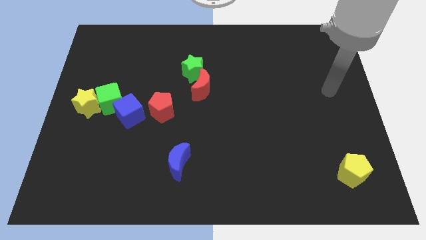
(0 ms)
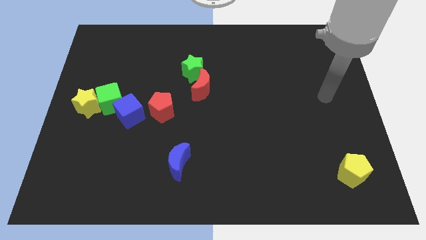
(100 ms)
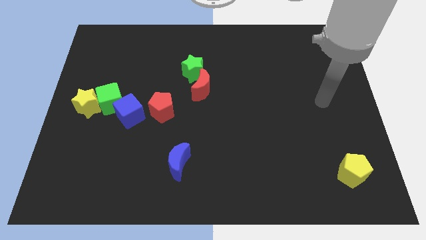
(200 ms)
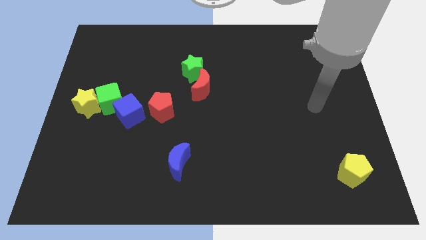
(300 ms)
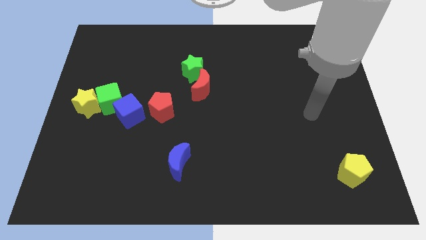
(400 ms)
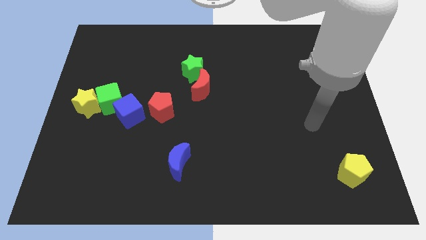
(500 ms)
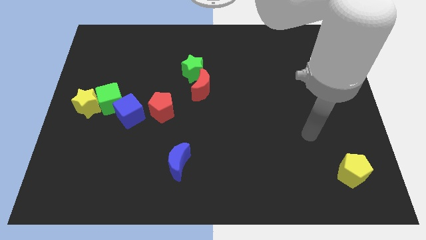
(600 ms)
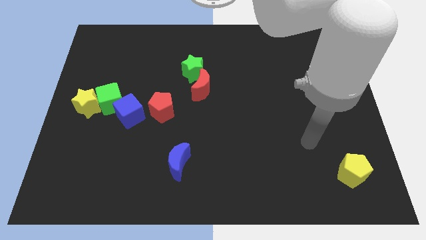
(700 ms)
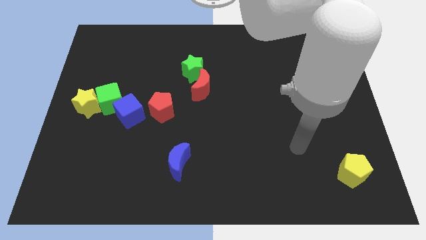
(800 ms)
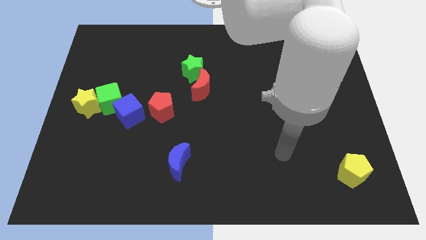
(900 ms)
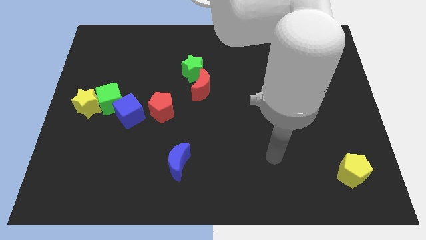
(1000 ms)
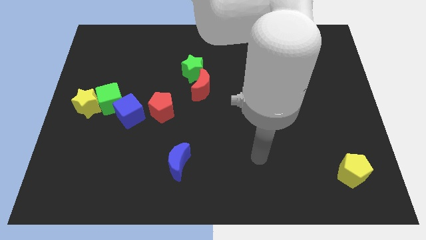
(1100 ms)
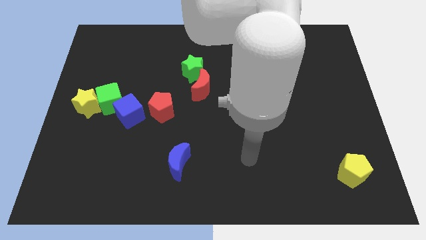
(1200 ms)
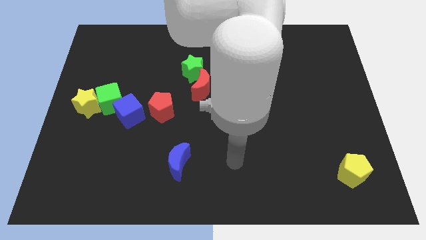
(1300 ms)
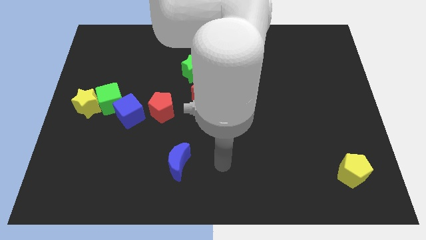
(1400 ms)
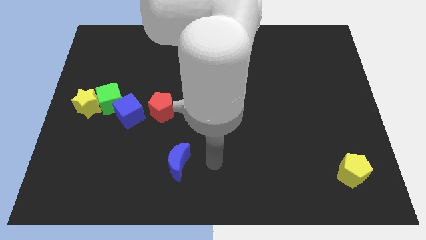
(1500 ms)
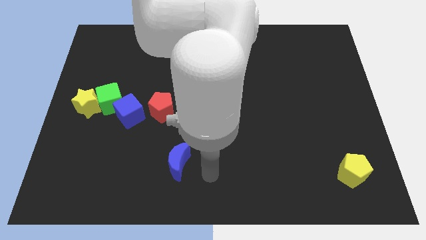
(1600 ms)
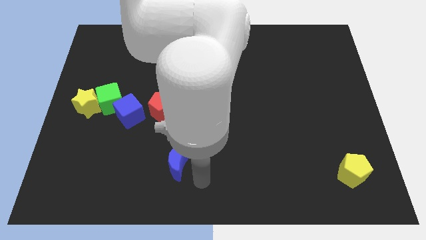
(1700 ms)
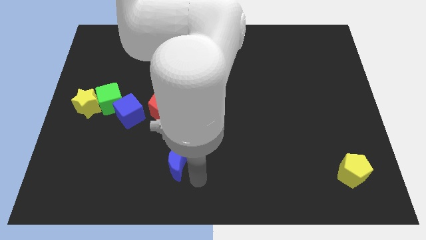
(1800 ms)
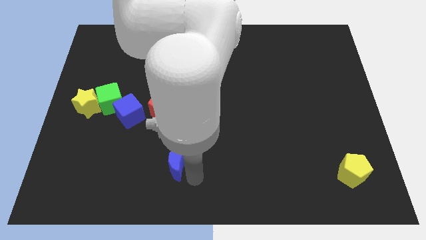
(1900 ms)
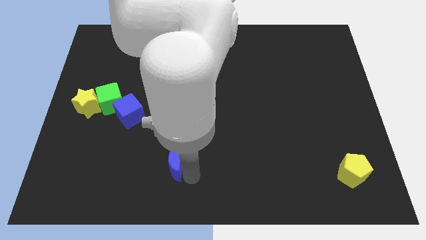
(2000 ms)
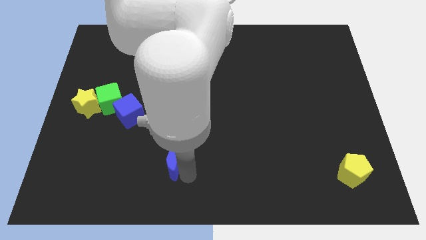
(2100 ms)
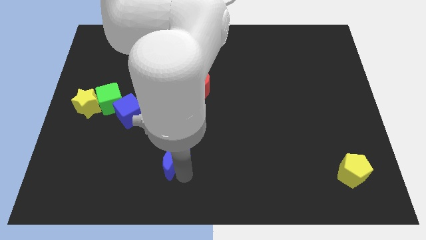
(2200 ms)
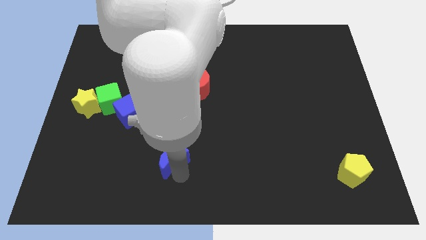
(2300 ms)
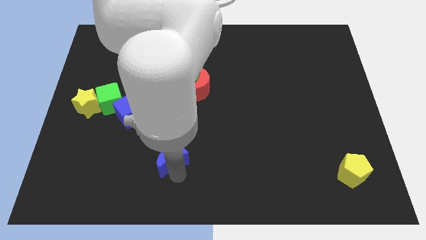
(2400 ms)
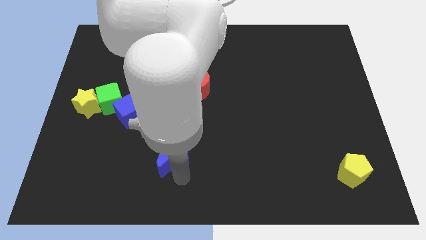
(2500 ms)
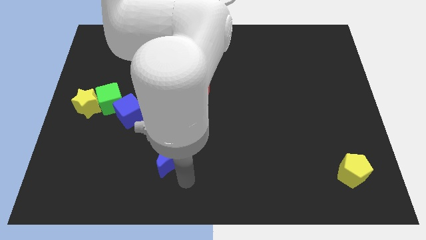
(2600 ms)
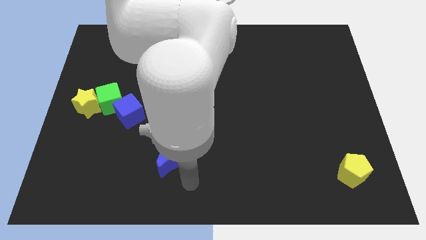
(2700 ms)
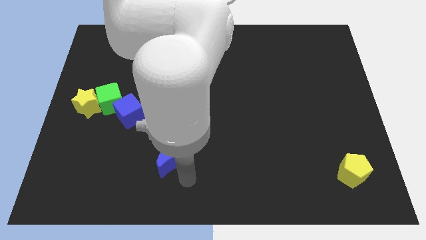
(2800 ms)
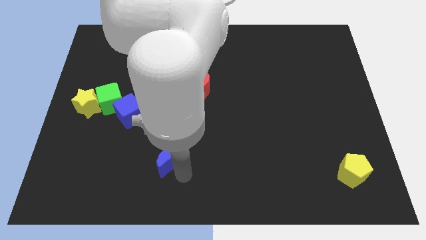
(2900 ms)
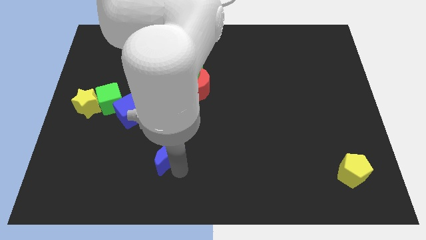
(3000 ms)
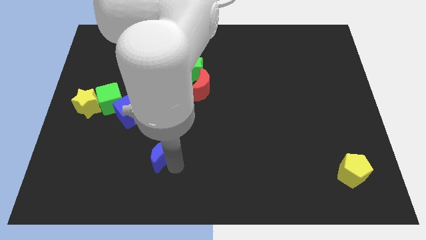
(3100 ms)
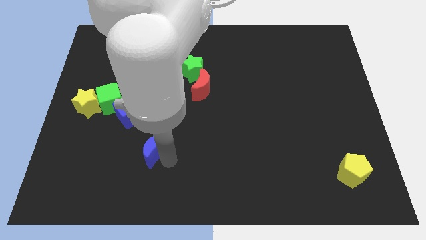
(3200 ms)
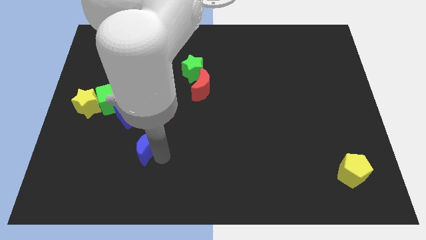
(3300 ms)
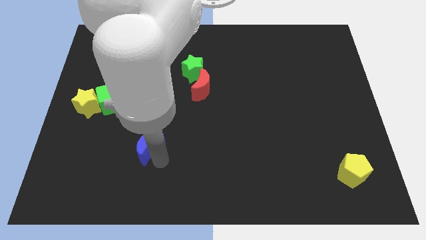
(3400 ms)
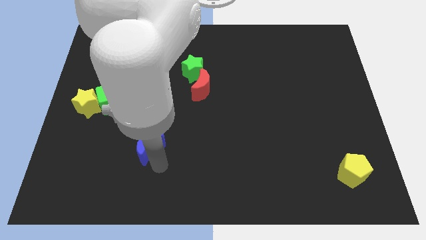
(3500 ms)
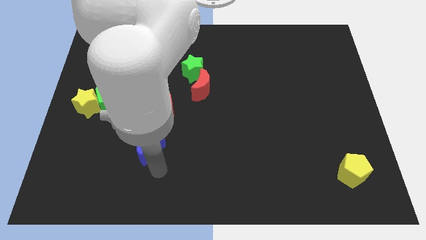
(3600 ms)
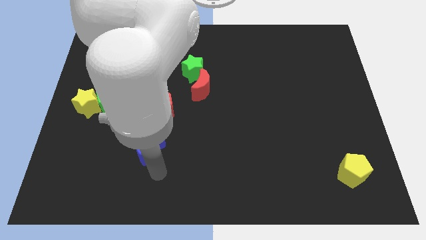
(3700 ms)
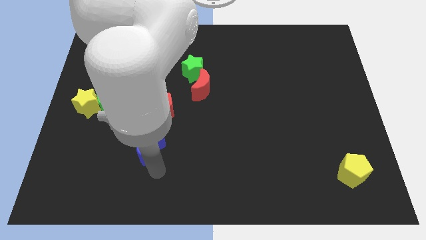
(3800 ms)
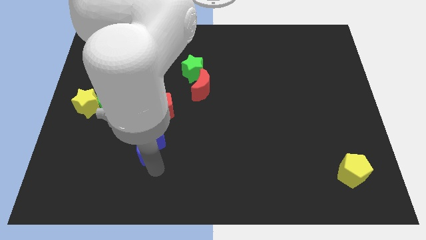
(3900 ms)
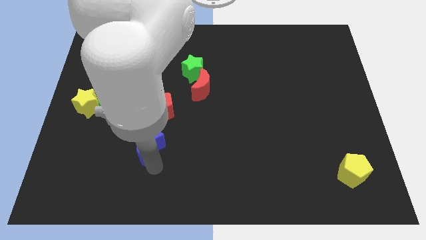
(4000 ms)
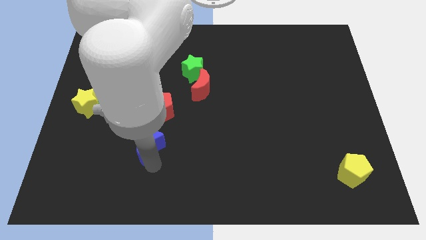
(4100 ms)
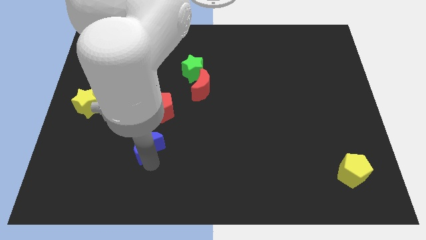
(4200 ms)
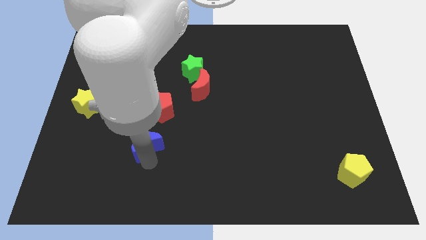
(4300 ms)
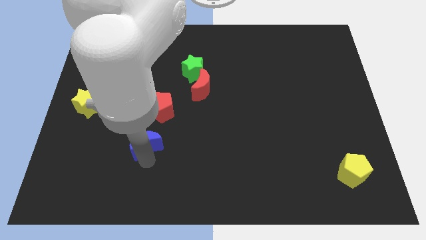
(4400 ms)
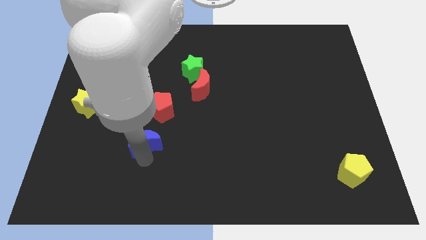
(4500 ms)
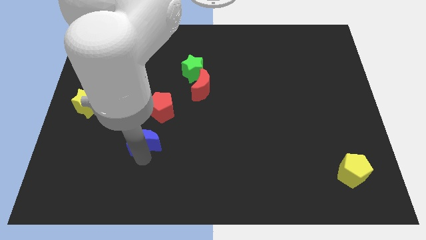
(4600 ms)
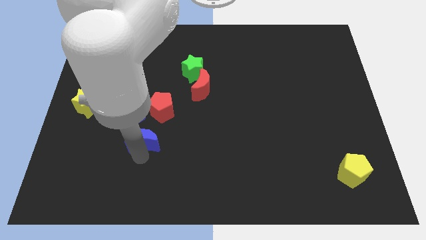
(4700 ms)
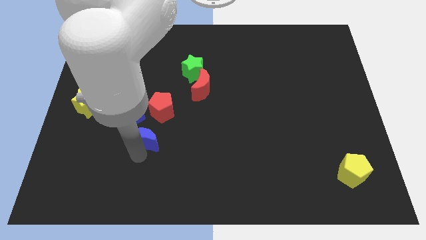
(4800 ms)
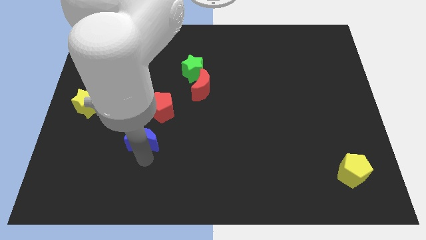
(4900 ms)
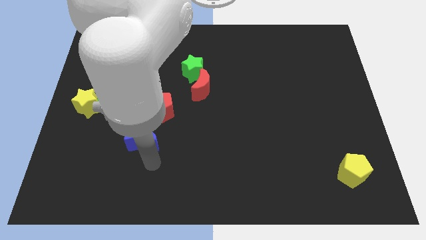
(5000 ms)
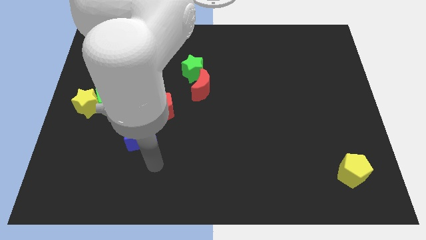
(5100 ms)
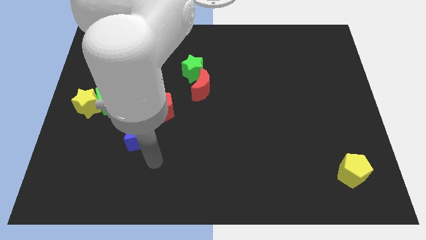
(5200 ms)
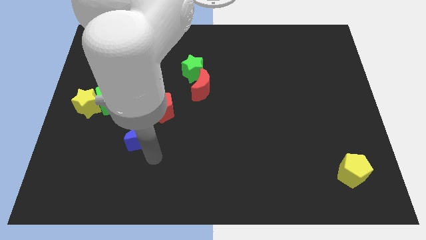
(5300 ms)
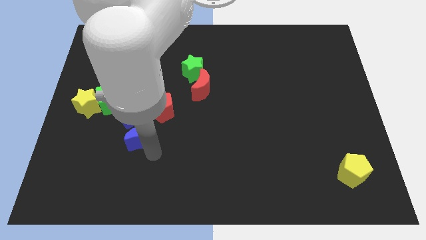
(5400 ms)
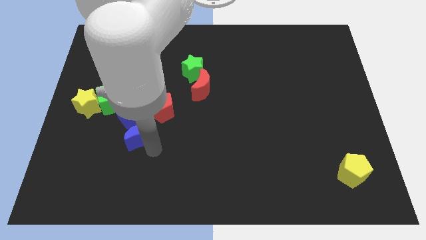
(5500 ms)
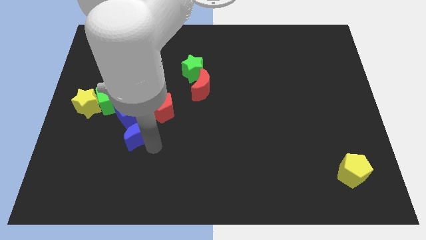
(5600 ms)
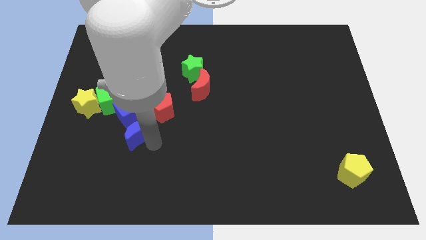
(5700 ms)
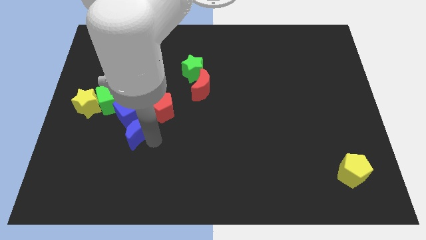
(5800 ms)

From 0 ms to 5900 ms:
slide the blue moon towards the blue cube

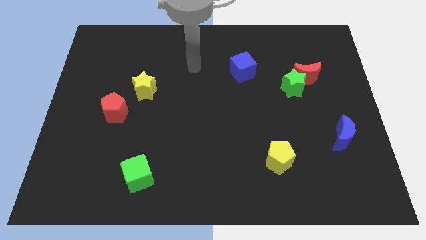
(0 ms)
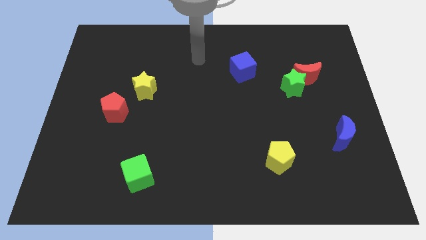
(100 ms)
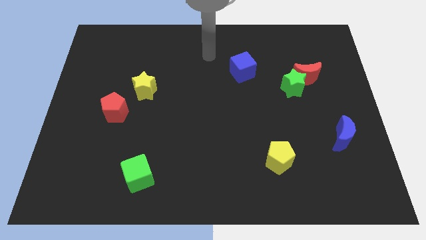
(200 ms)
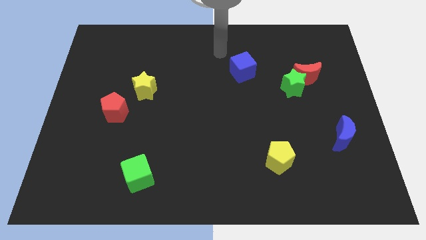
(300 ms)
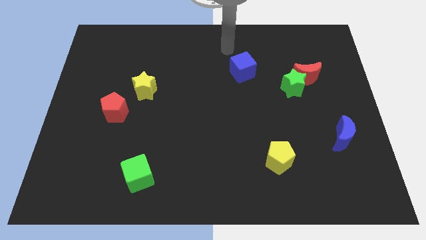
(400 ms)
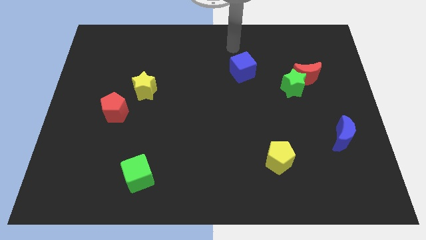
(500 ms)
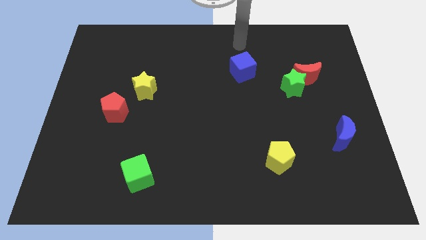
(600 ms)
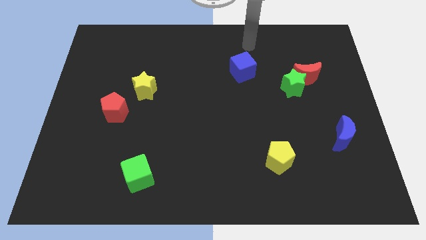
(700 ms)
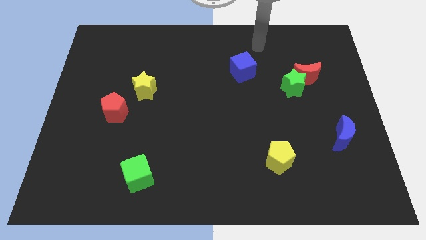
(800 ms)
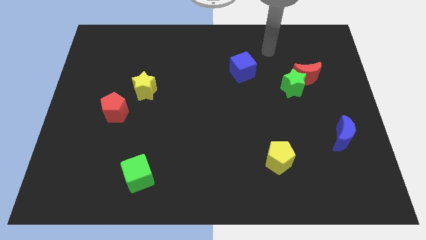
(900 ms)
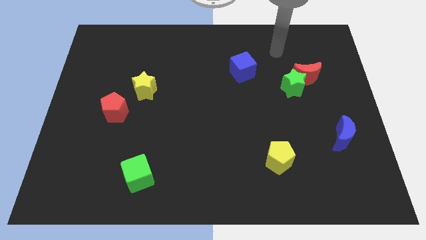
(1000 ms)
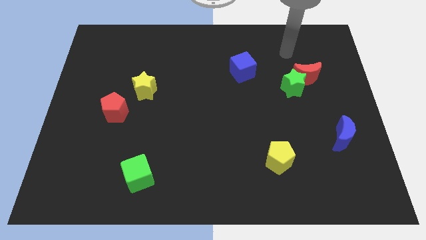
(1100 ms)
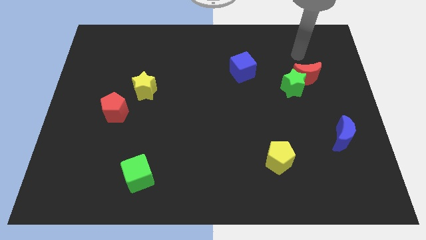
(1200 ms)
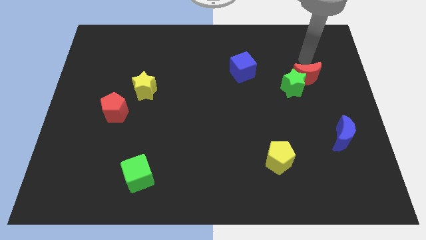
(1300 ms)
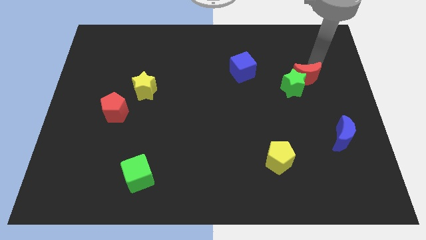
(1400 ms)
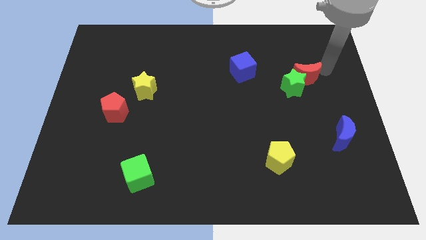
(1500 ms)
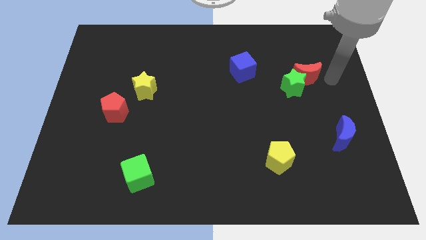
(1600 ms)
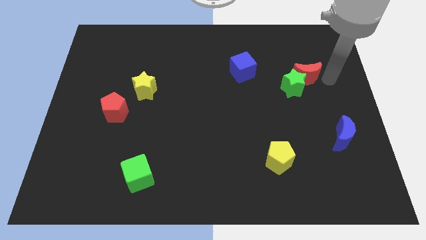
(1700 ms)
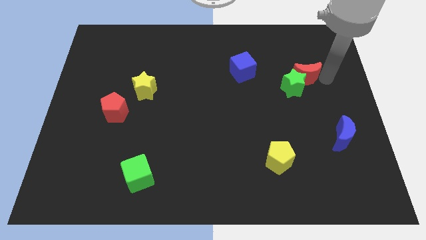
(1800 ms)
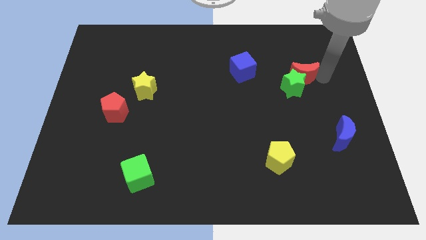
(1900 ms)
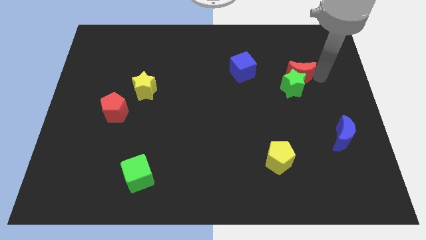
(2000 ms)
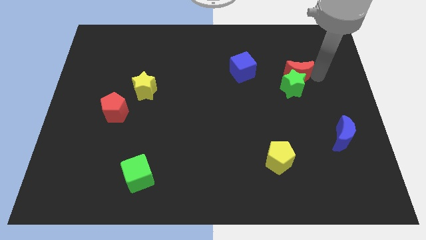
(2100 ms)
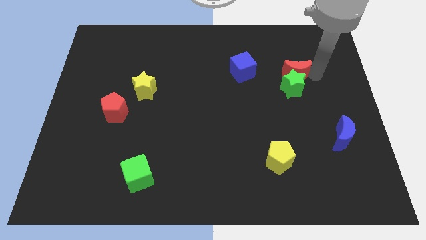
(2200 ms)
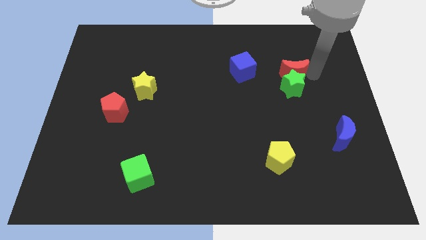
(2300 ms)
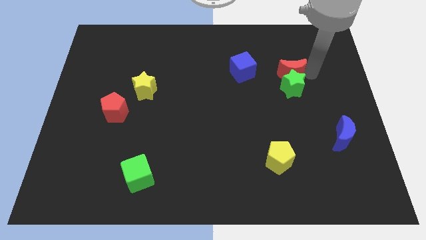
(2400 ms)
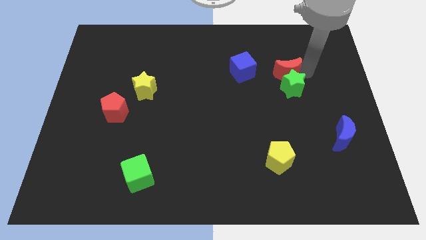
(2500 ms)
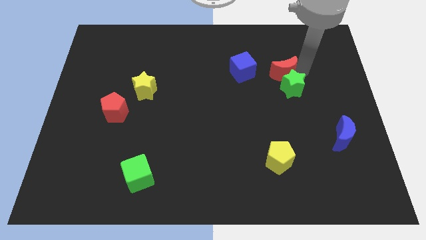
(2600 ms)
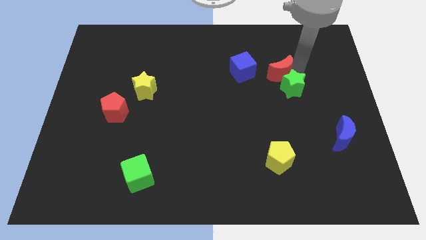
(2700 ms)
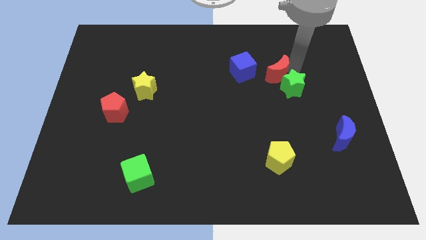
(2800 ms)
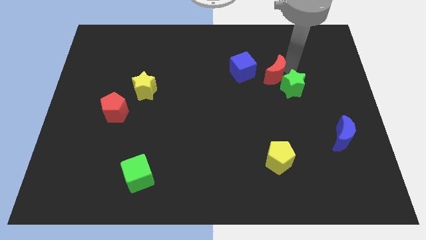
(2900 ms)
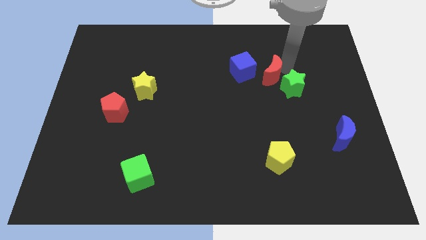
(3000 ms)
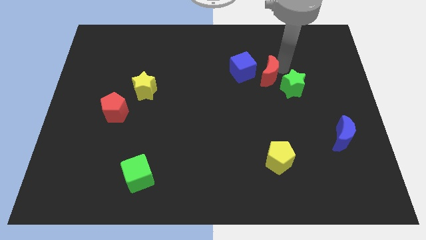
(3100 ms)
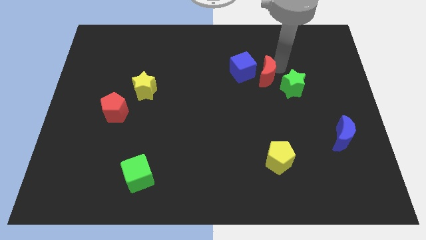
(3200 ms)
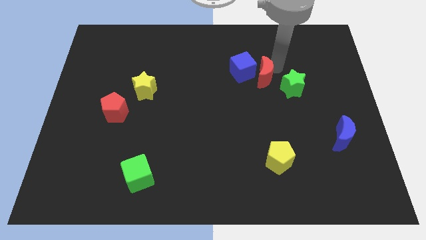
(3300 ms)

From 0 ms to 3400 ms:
slide the red moon to the blue cube
